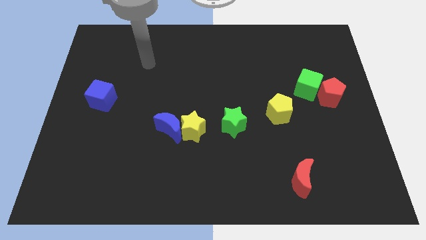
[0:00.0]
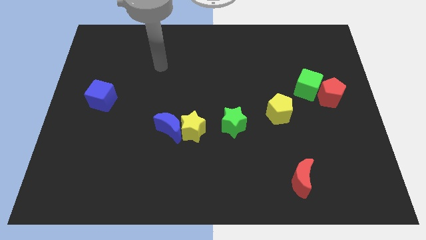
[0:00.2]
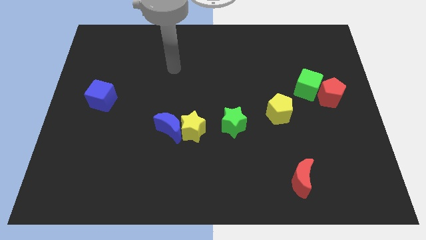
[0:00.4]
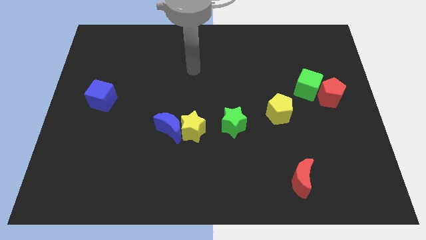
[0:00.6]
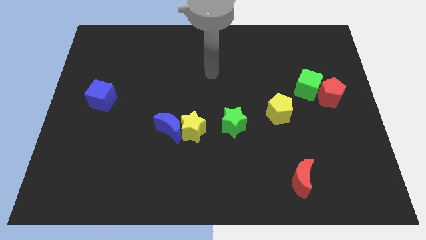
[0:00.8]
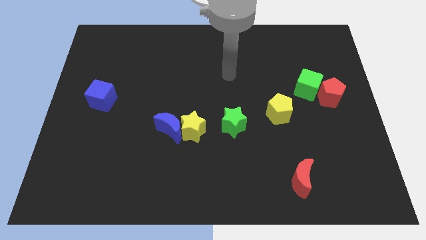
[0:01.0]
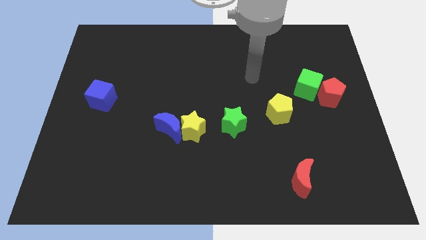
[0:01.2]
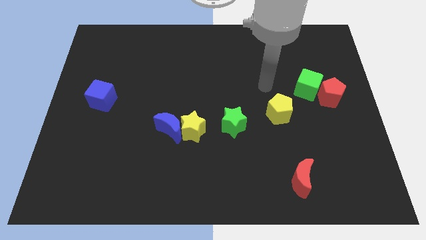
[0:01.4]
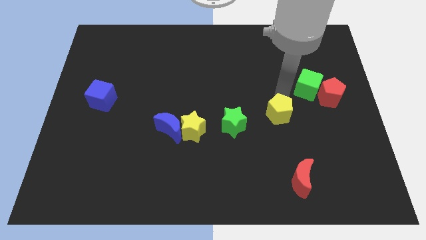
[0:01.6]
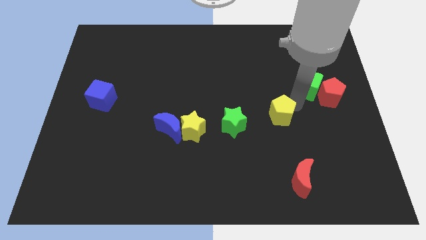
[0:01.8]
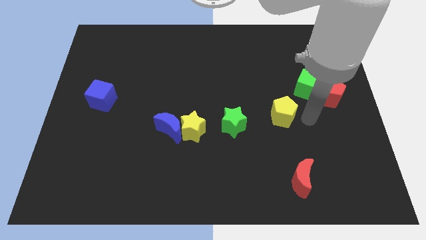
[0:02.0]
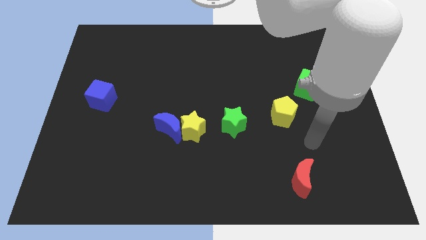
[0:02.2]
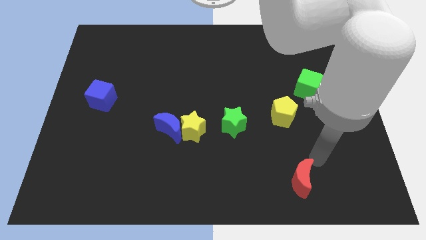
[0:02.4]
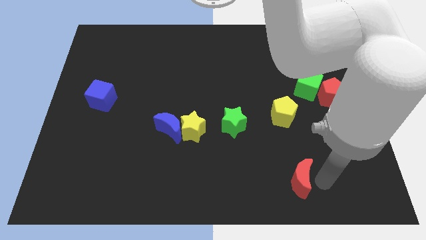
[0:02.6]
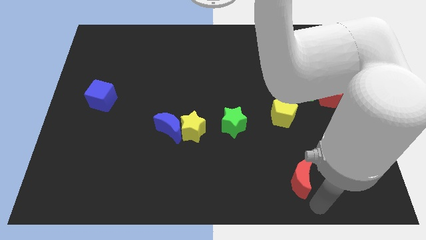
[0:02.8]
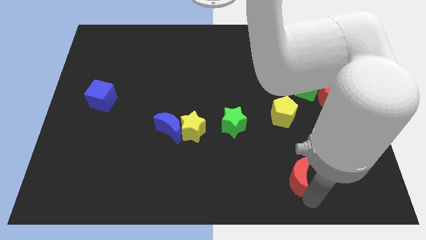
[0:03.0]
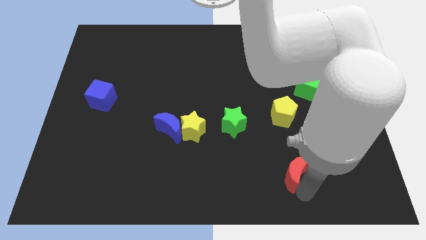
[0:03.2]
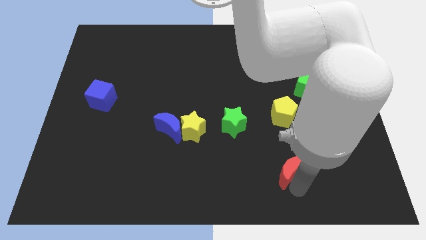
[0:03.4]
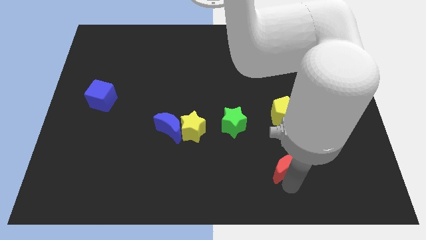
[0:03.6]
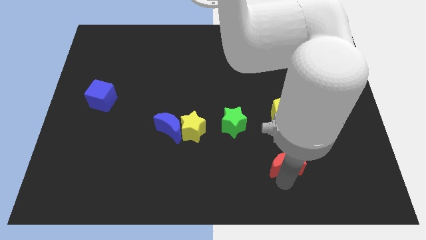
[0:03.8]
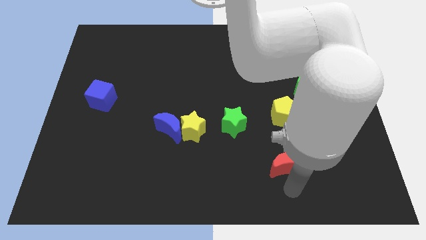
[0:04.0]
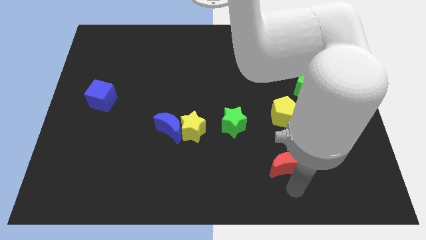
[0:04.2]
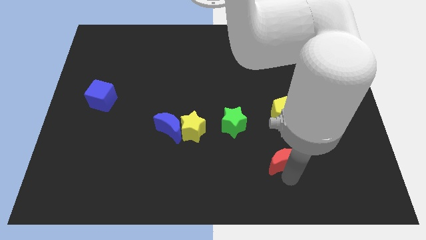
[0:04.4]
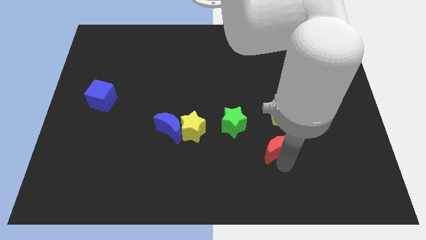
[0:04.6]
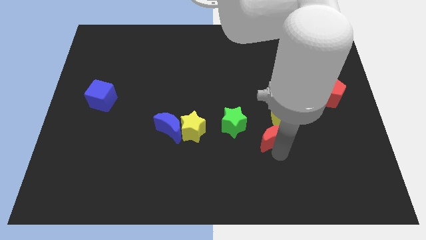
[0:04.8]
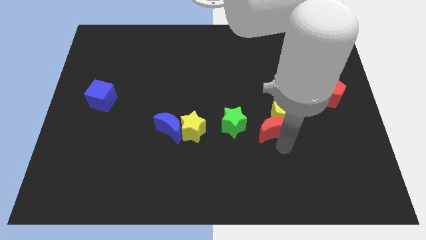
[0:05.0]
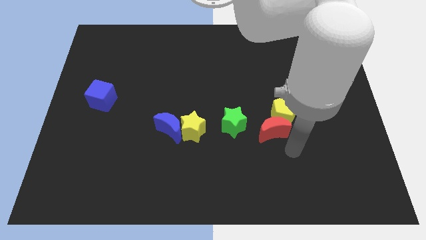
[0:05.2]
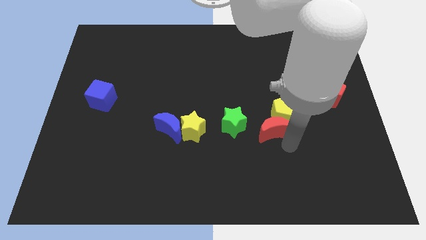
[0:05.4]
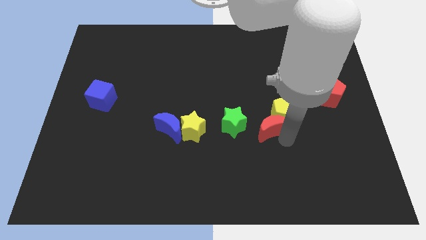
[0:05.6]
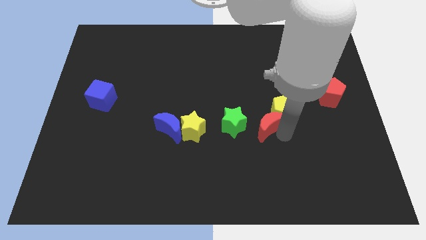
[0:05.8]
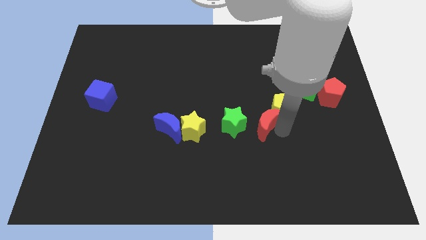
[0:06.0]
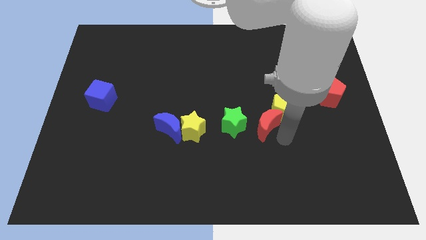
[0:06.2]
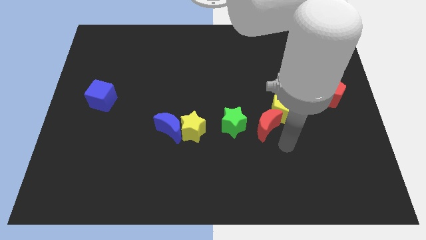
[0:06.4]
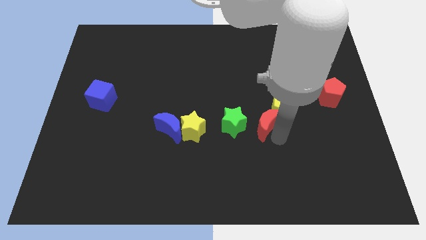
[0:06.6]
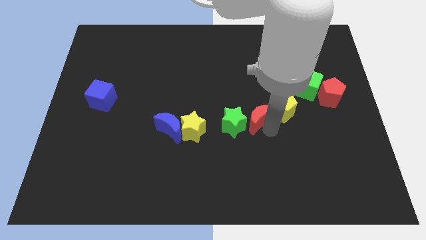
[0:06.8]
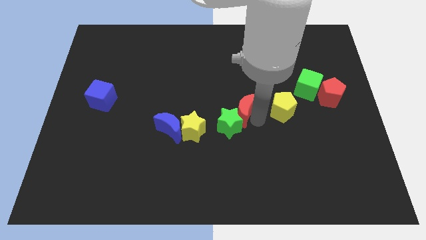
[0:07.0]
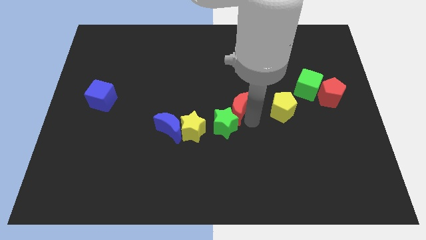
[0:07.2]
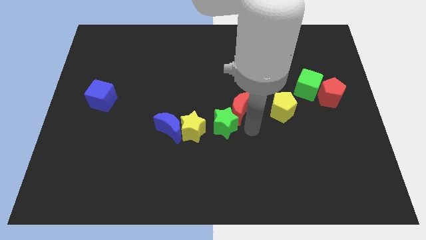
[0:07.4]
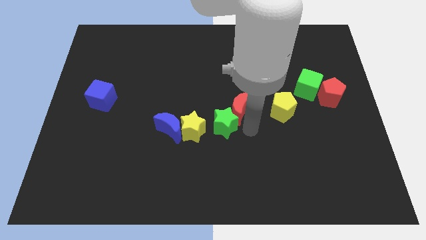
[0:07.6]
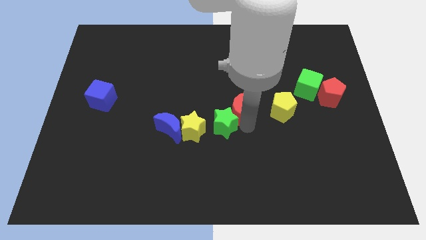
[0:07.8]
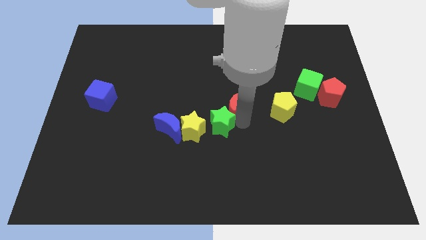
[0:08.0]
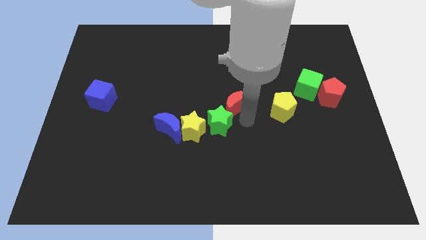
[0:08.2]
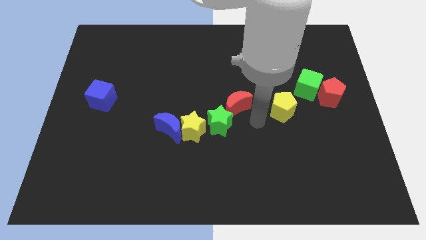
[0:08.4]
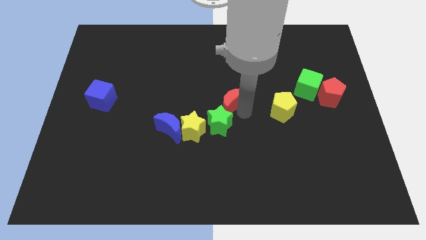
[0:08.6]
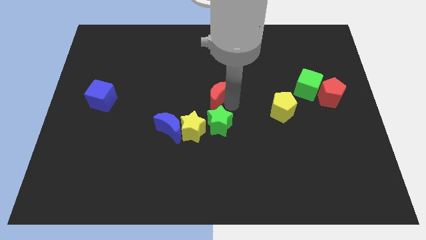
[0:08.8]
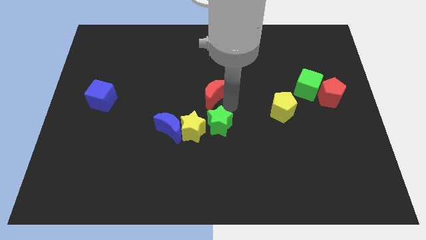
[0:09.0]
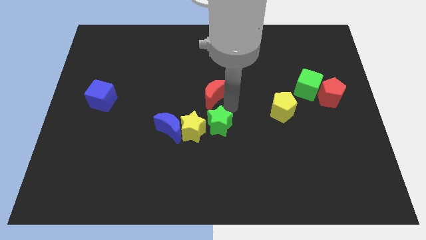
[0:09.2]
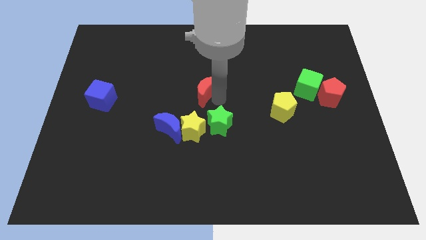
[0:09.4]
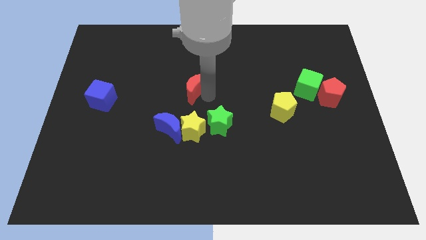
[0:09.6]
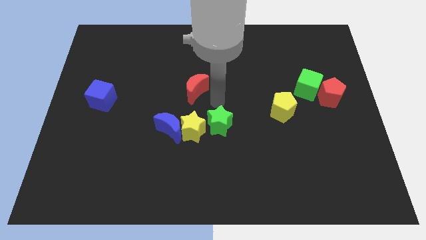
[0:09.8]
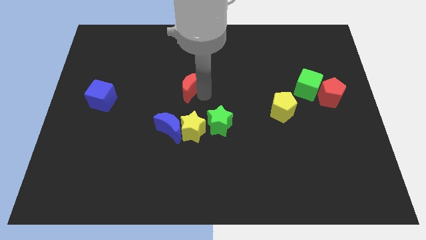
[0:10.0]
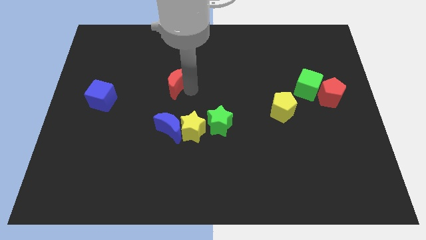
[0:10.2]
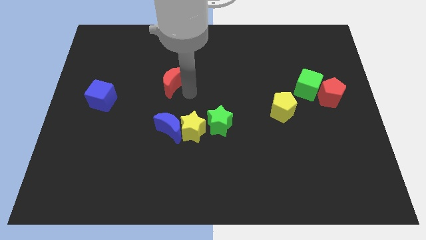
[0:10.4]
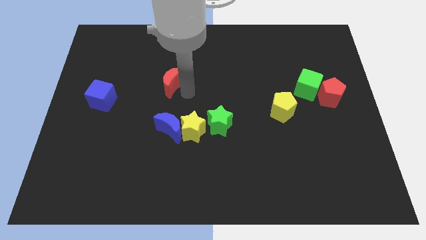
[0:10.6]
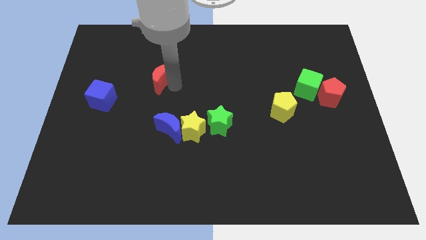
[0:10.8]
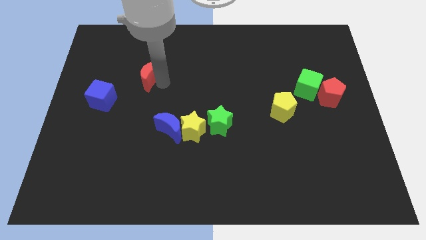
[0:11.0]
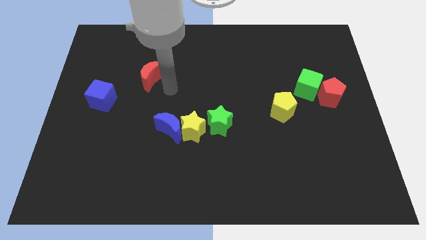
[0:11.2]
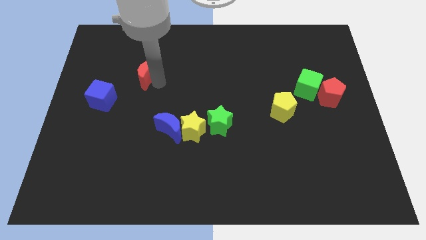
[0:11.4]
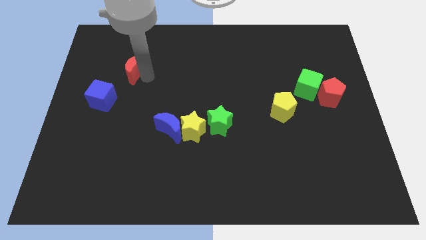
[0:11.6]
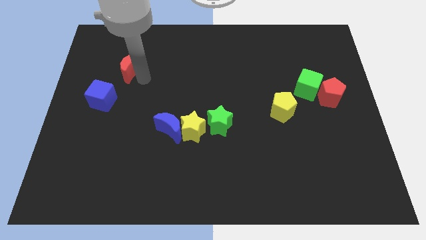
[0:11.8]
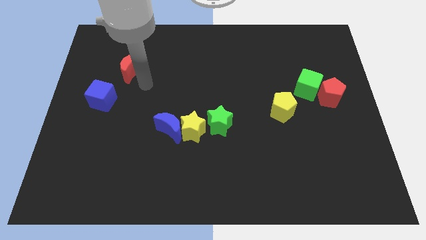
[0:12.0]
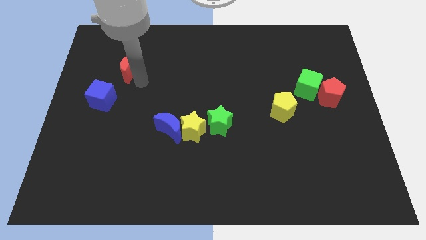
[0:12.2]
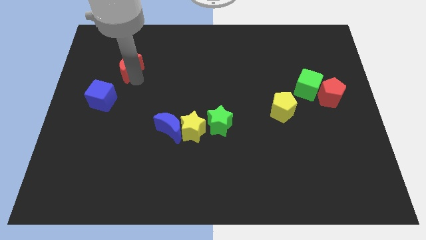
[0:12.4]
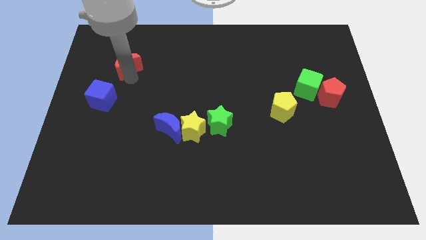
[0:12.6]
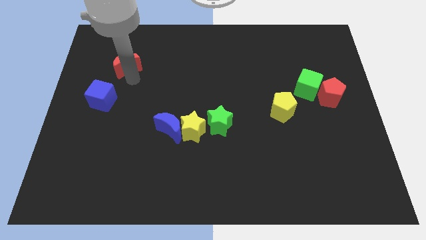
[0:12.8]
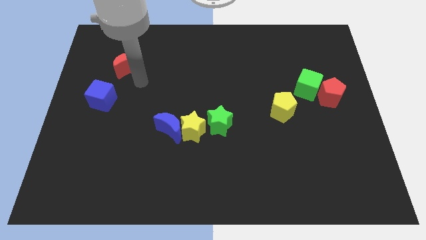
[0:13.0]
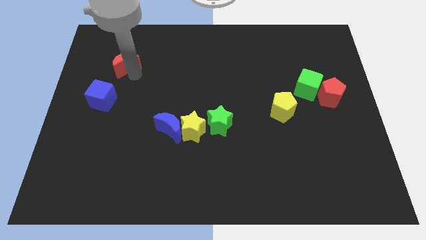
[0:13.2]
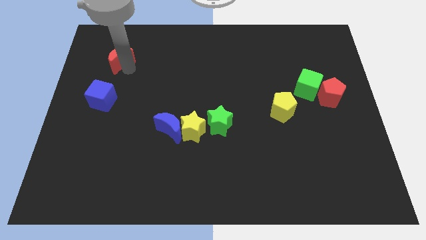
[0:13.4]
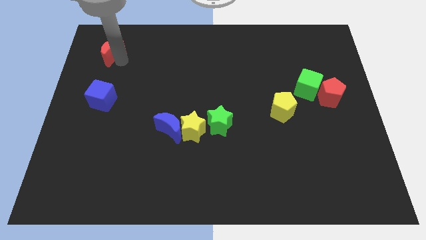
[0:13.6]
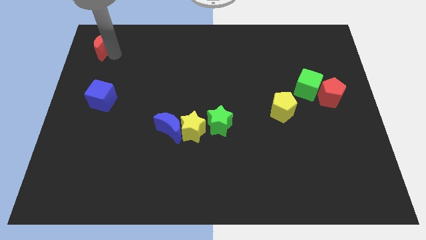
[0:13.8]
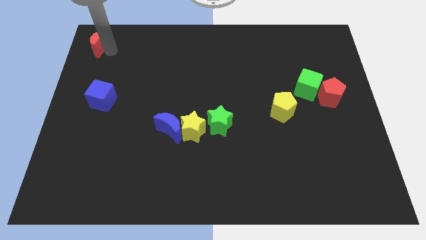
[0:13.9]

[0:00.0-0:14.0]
put the red moon to the top left of the board
